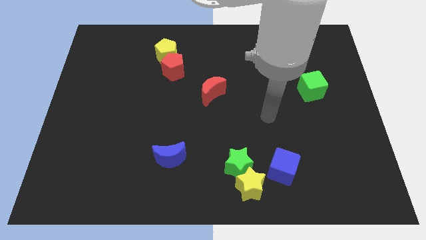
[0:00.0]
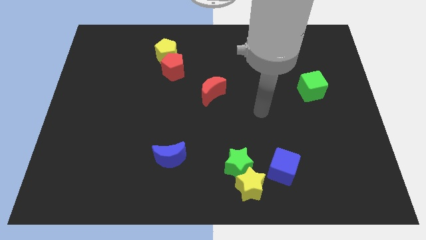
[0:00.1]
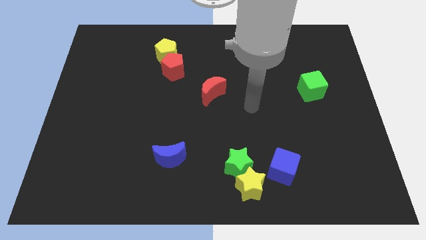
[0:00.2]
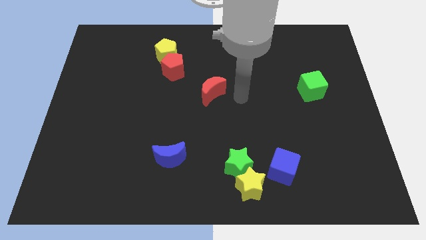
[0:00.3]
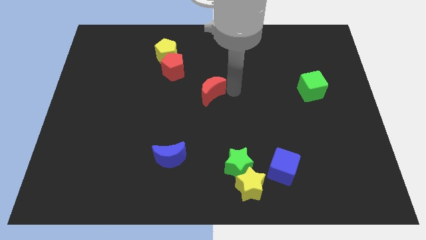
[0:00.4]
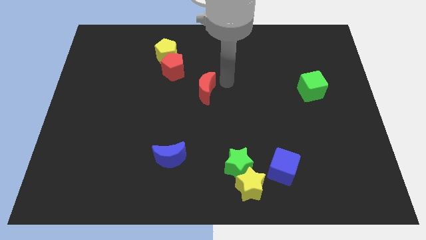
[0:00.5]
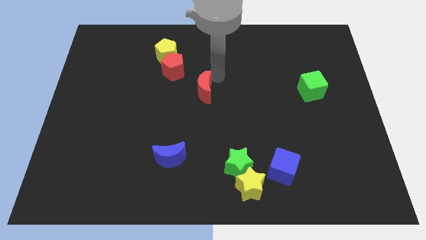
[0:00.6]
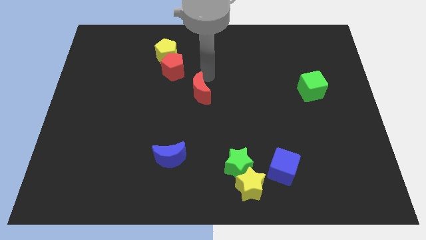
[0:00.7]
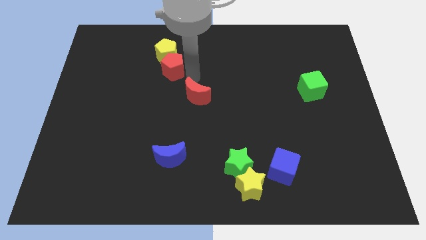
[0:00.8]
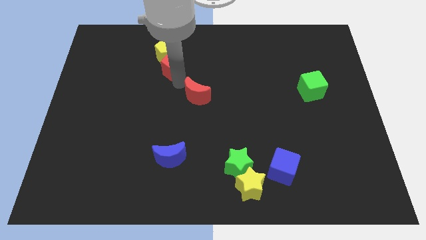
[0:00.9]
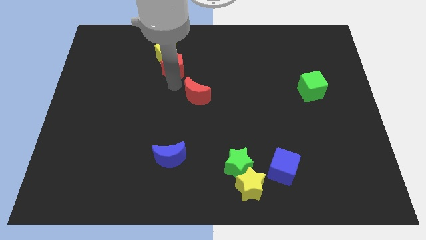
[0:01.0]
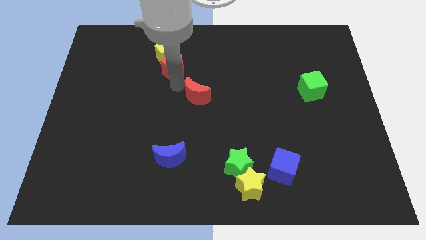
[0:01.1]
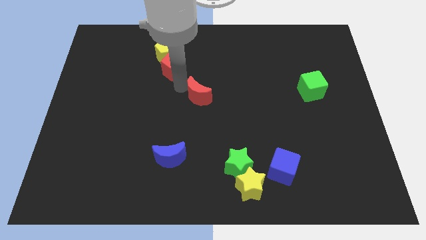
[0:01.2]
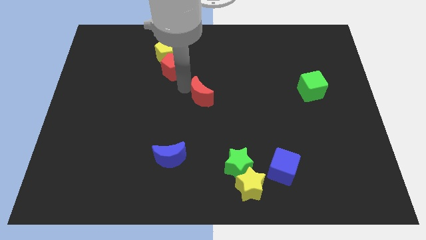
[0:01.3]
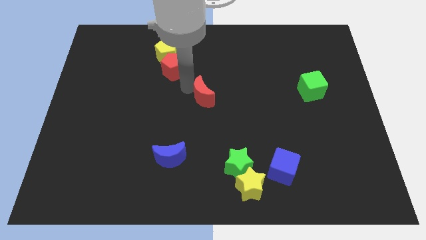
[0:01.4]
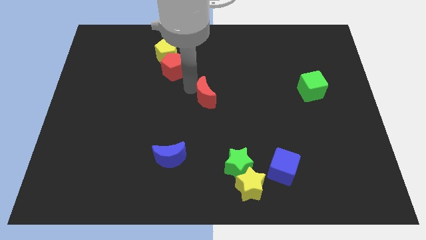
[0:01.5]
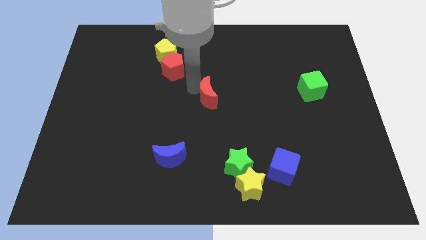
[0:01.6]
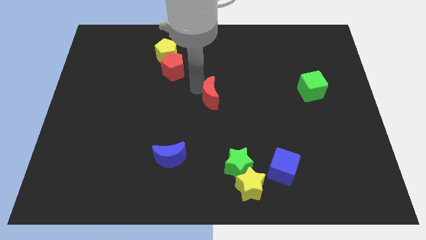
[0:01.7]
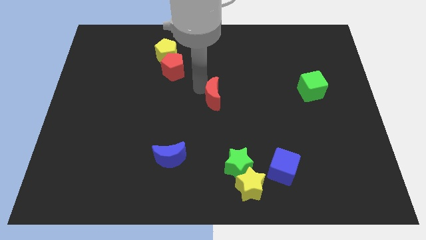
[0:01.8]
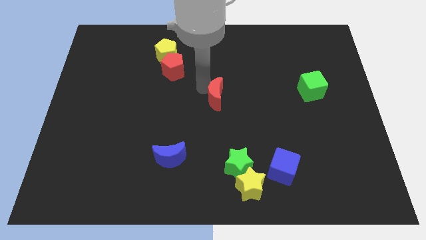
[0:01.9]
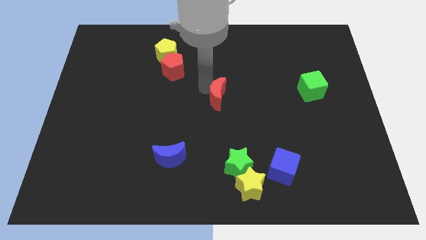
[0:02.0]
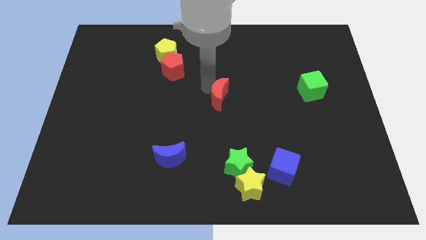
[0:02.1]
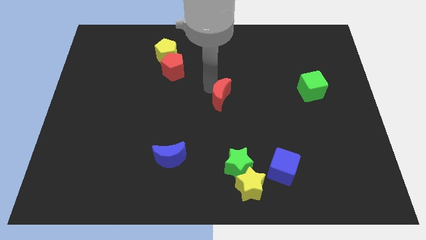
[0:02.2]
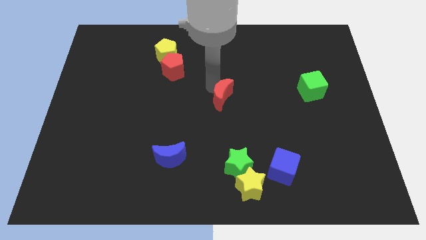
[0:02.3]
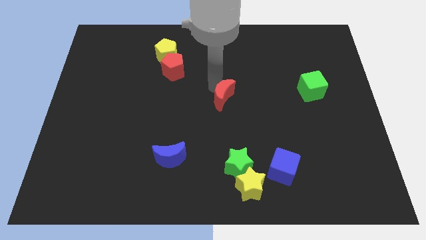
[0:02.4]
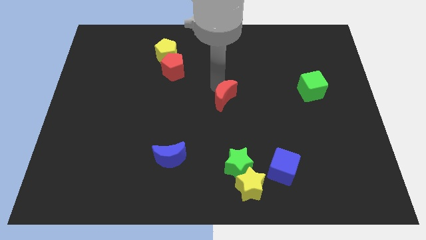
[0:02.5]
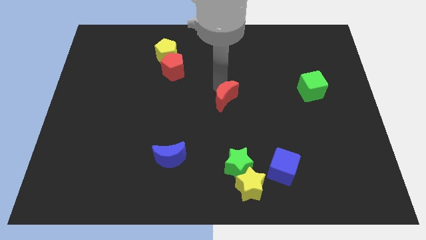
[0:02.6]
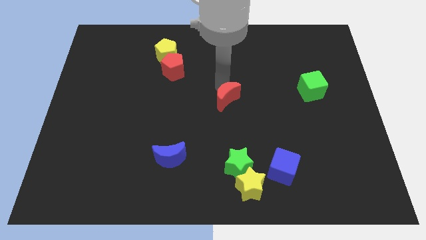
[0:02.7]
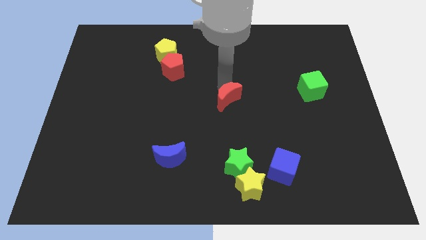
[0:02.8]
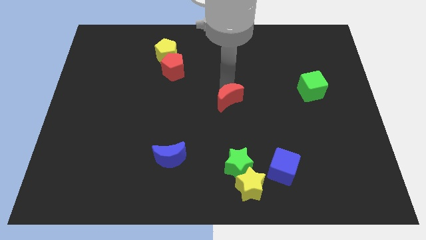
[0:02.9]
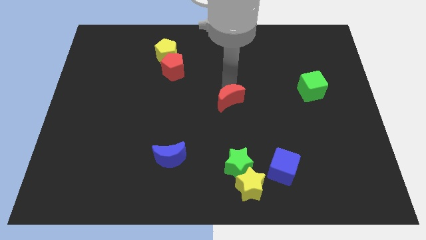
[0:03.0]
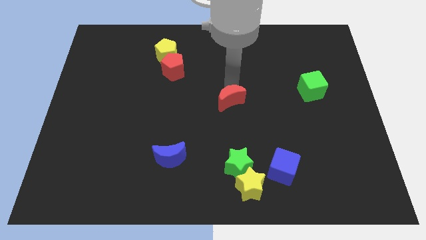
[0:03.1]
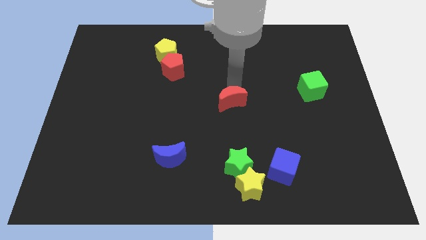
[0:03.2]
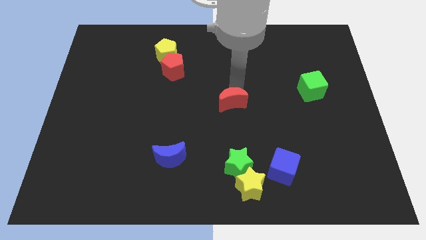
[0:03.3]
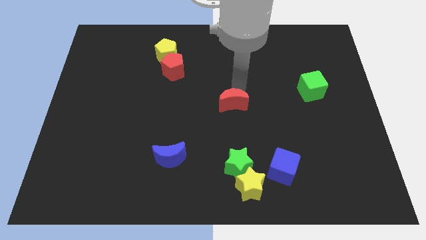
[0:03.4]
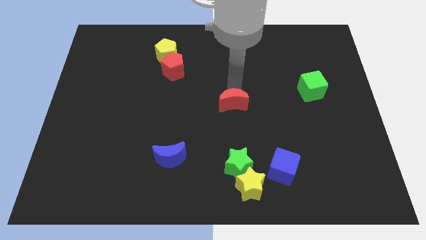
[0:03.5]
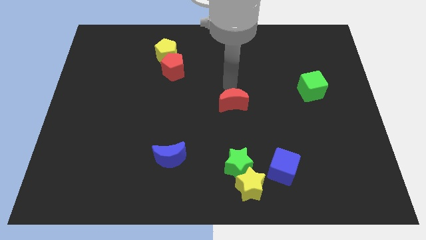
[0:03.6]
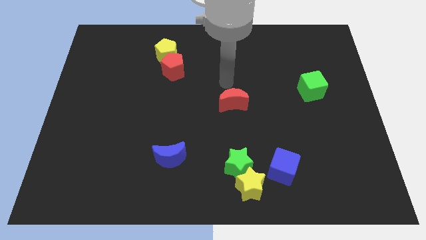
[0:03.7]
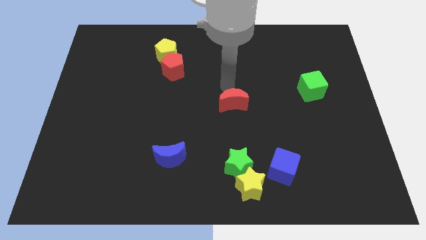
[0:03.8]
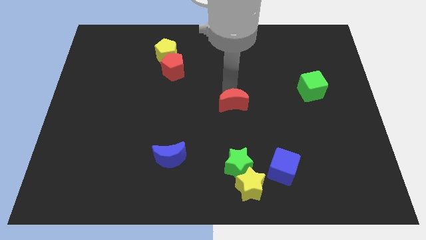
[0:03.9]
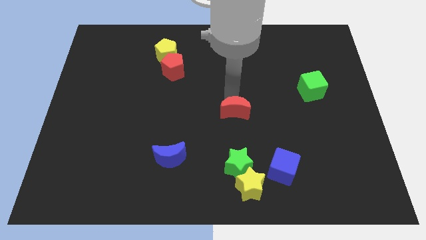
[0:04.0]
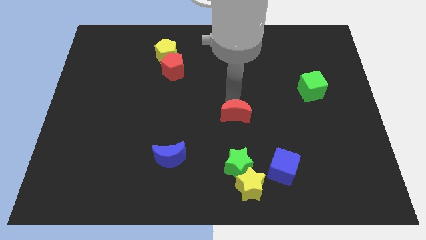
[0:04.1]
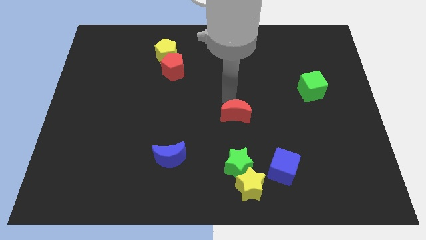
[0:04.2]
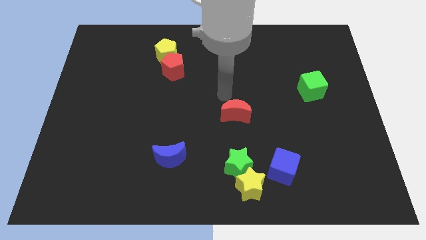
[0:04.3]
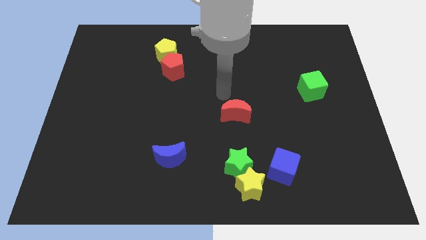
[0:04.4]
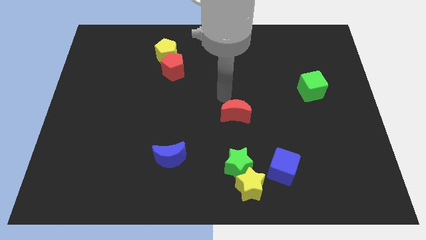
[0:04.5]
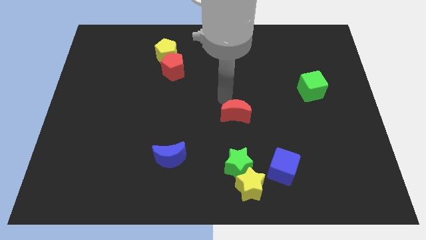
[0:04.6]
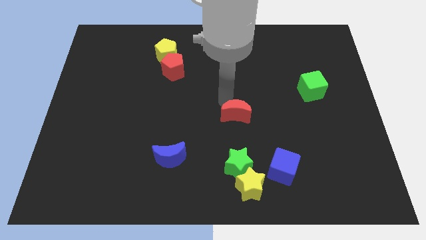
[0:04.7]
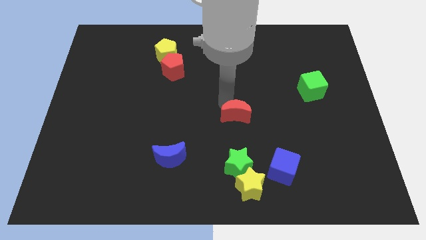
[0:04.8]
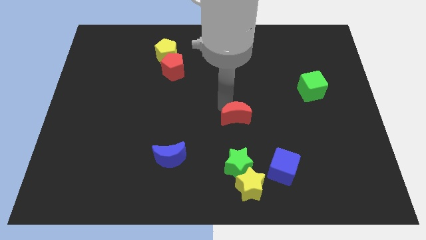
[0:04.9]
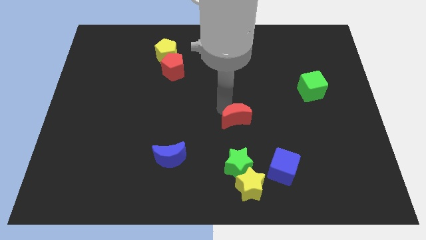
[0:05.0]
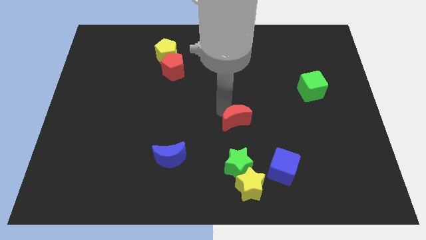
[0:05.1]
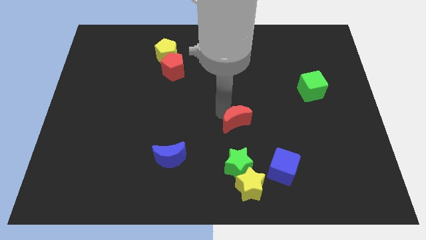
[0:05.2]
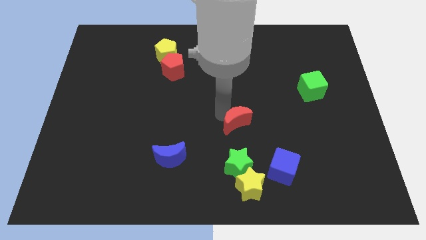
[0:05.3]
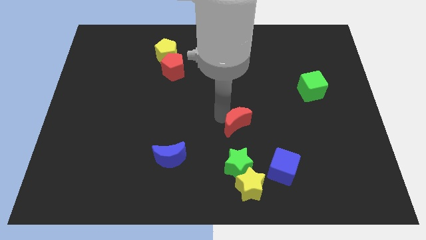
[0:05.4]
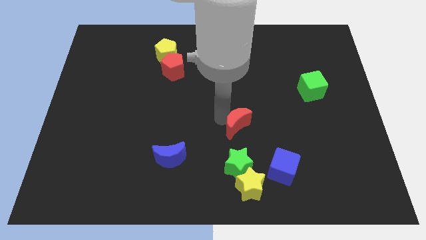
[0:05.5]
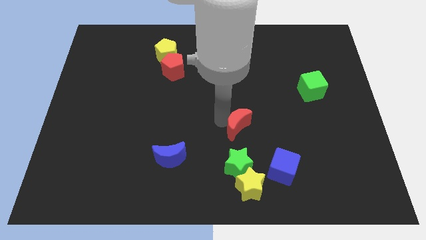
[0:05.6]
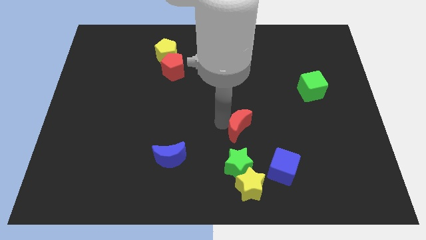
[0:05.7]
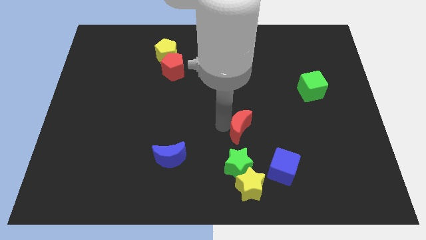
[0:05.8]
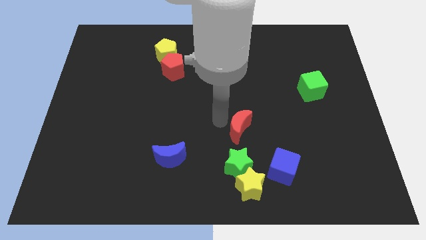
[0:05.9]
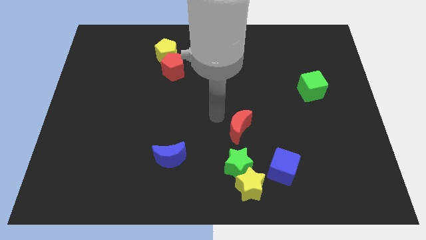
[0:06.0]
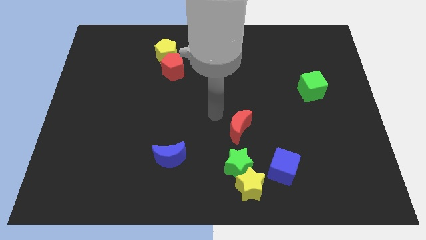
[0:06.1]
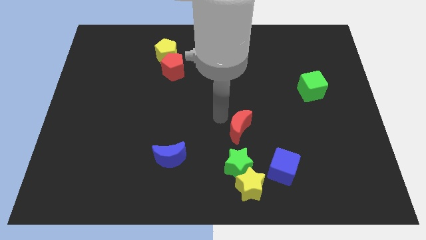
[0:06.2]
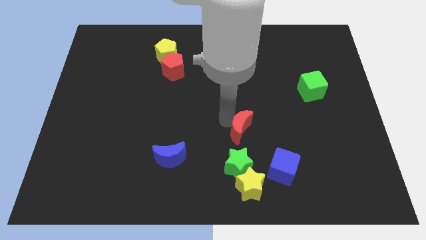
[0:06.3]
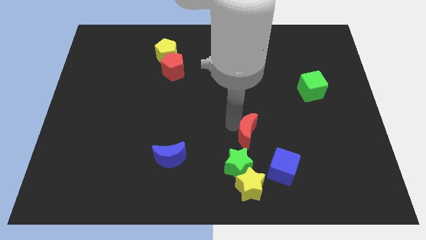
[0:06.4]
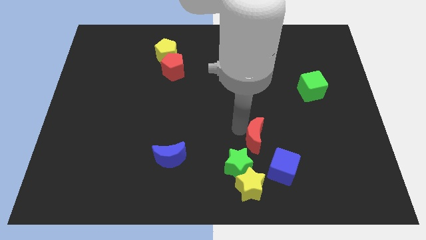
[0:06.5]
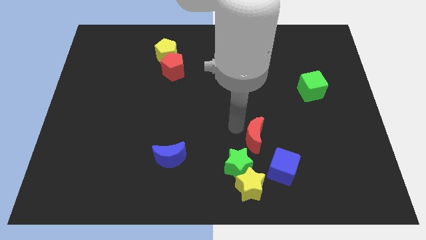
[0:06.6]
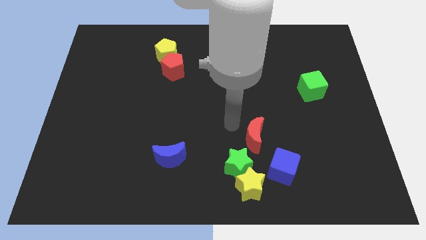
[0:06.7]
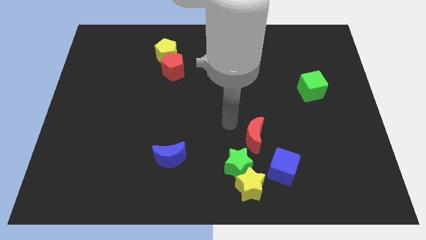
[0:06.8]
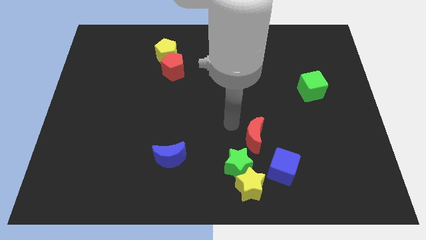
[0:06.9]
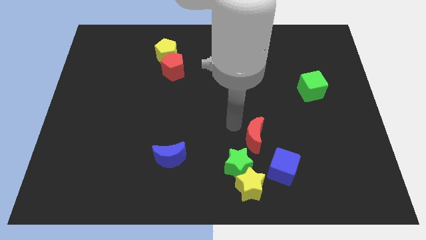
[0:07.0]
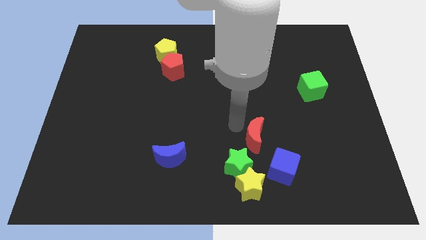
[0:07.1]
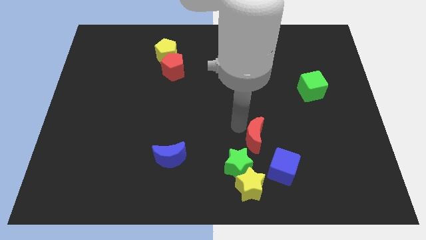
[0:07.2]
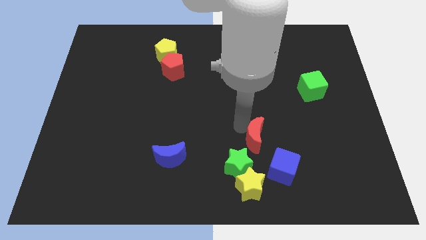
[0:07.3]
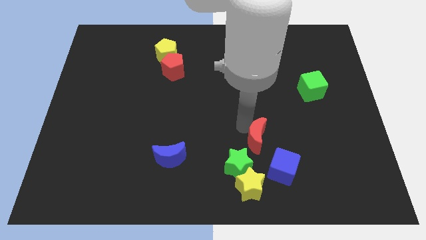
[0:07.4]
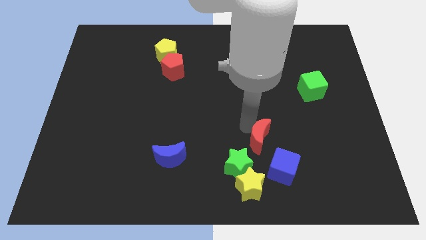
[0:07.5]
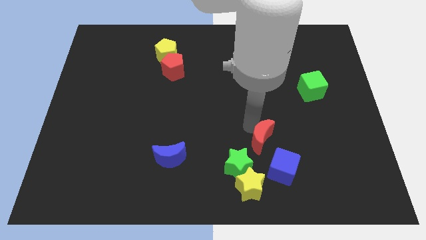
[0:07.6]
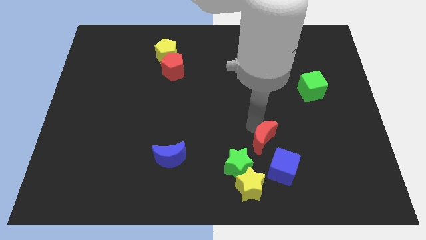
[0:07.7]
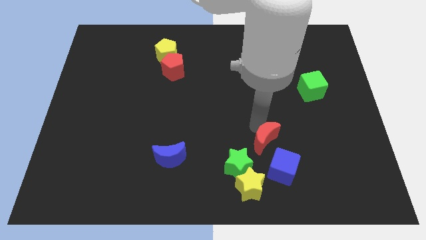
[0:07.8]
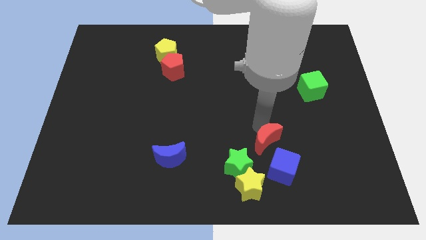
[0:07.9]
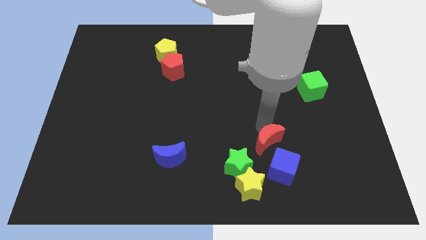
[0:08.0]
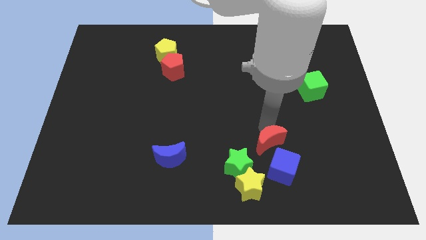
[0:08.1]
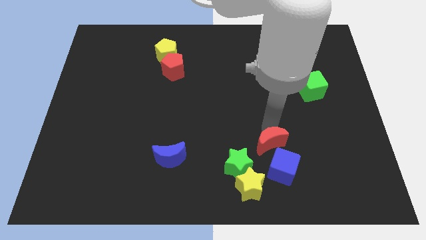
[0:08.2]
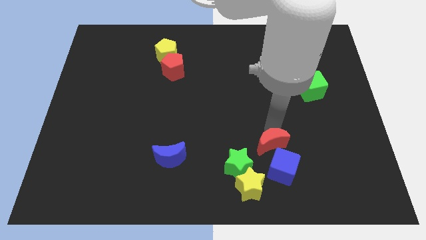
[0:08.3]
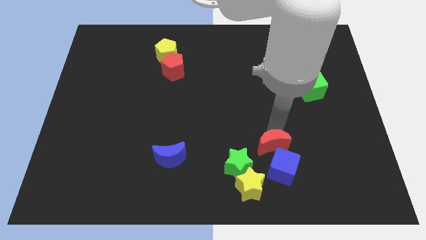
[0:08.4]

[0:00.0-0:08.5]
push the red moon next to the blue cube
